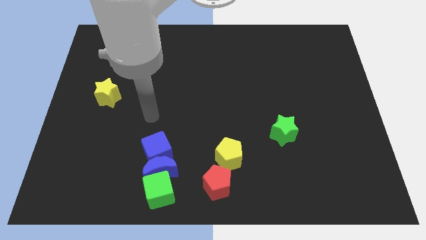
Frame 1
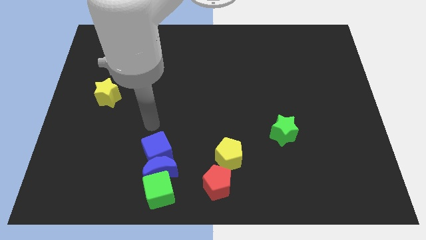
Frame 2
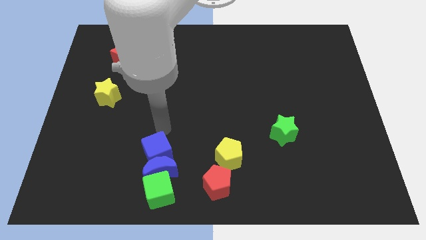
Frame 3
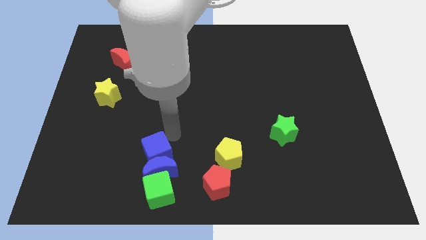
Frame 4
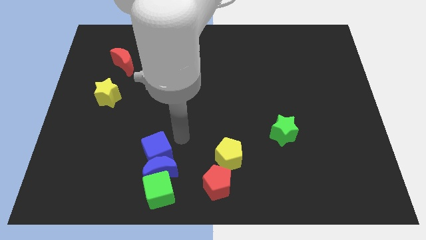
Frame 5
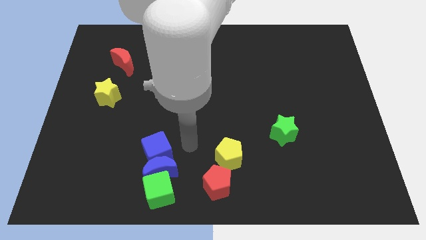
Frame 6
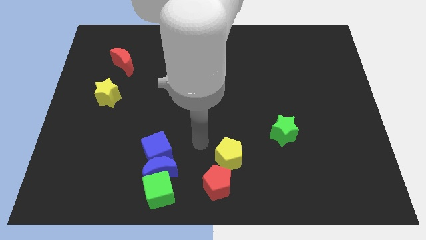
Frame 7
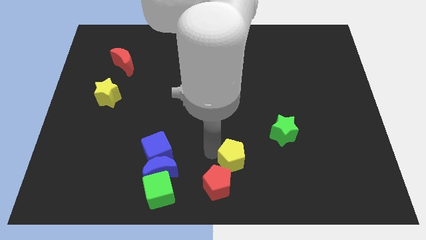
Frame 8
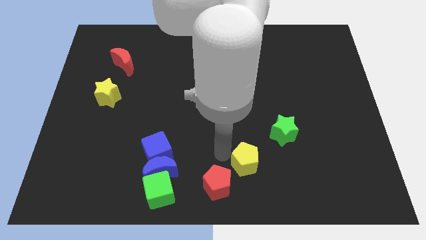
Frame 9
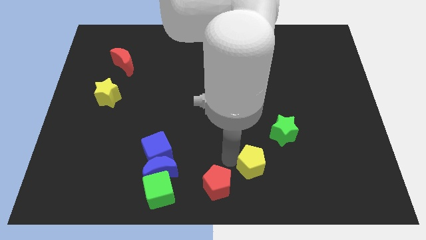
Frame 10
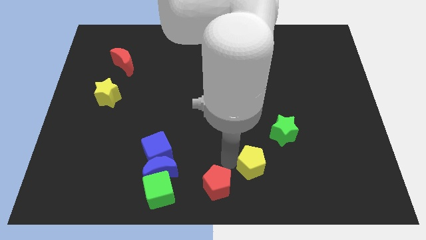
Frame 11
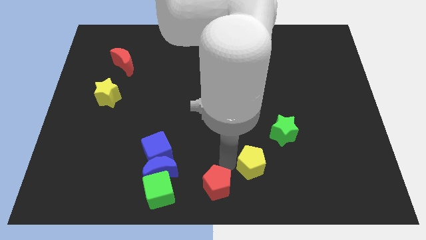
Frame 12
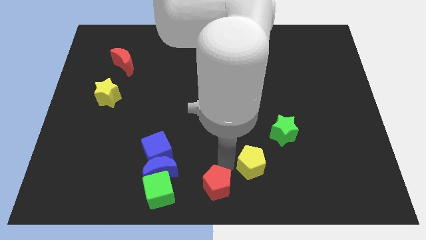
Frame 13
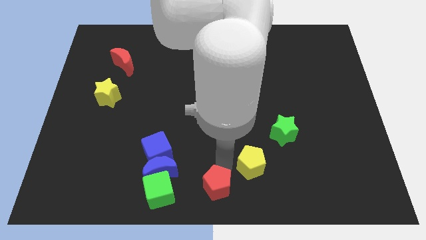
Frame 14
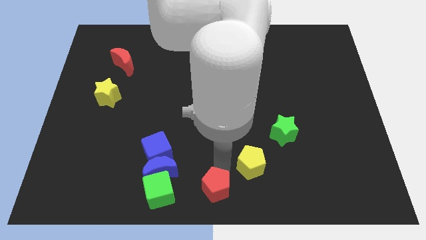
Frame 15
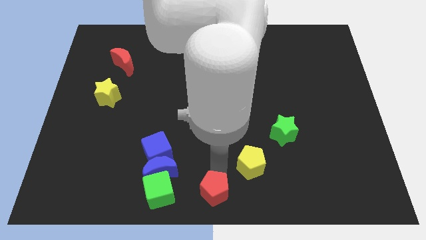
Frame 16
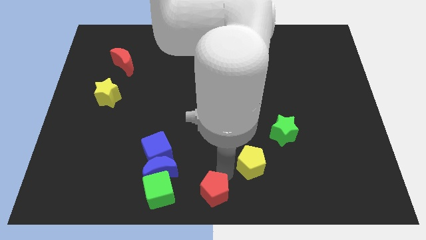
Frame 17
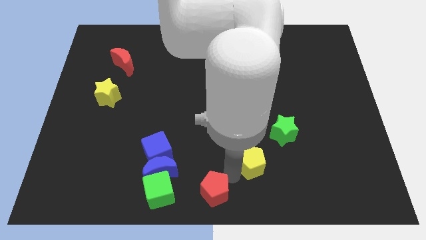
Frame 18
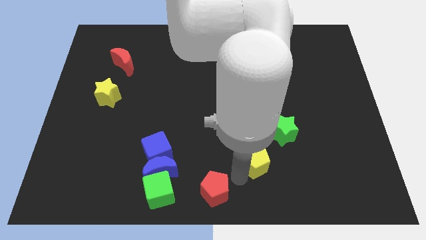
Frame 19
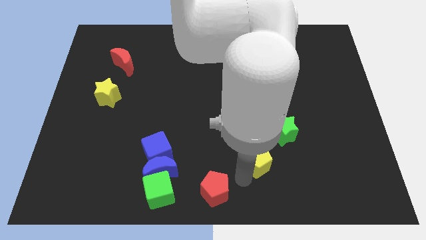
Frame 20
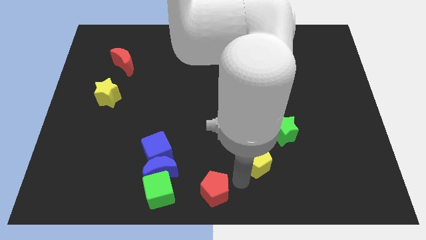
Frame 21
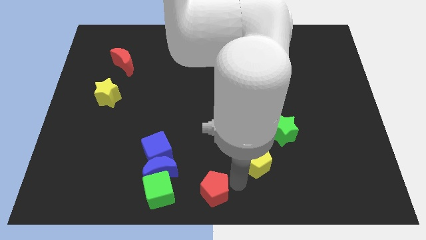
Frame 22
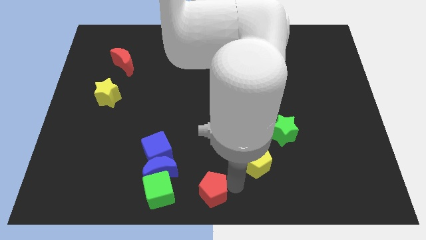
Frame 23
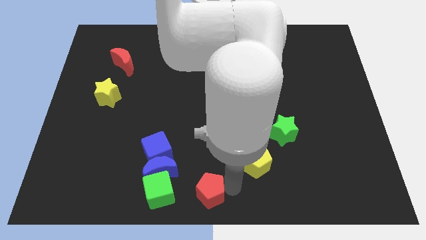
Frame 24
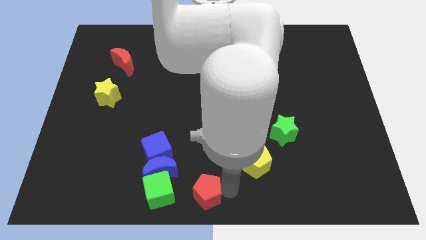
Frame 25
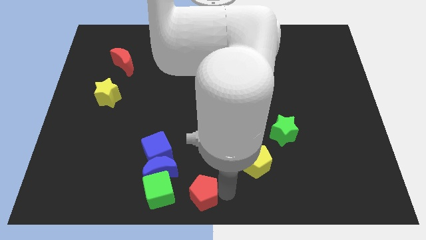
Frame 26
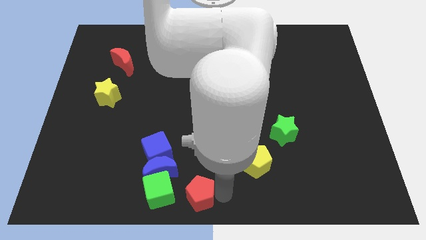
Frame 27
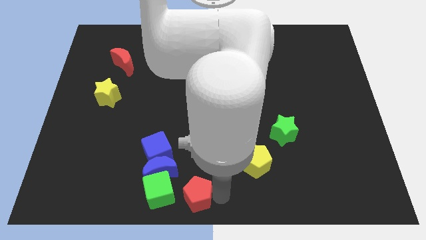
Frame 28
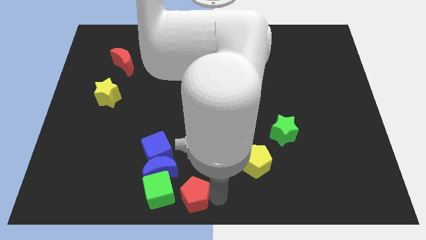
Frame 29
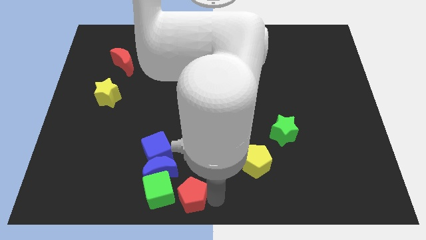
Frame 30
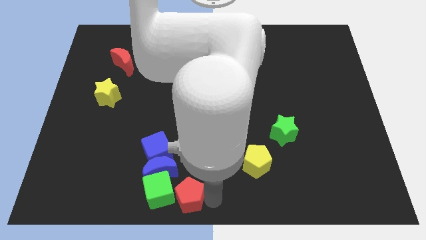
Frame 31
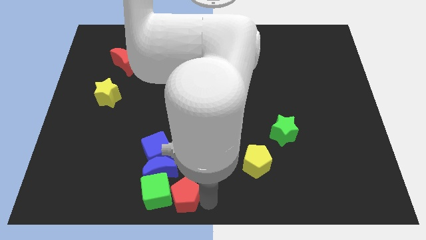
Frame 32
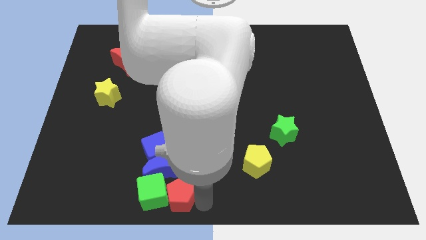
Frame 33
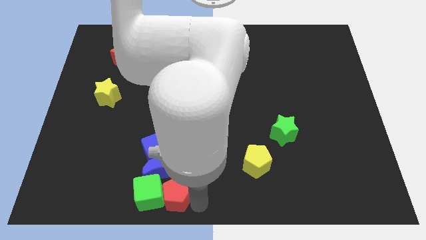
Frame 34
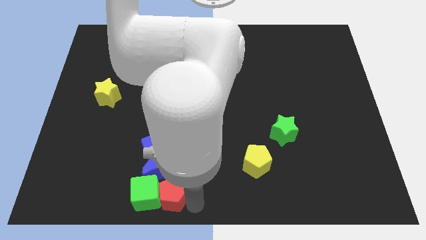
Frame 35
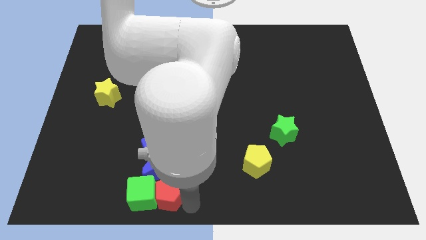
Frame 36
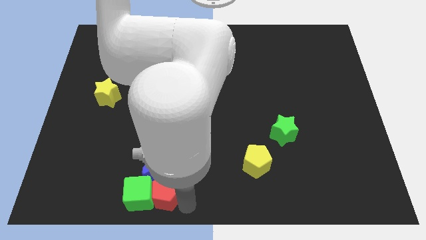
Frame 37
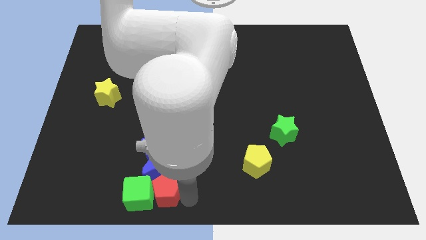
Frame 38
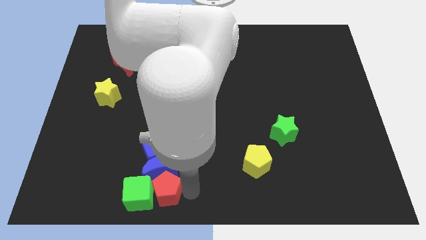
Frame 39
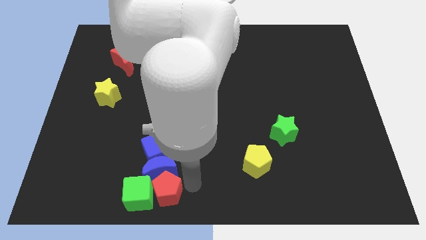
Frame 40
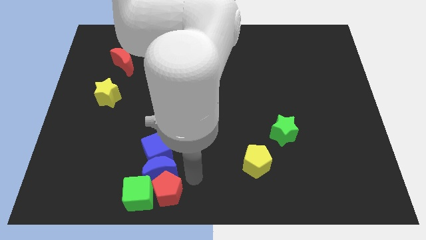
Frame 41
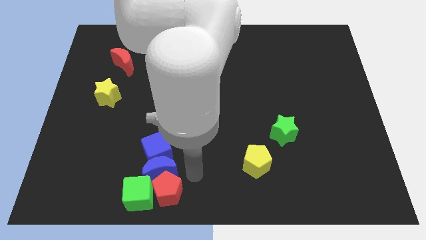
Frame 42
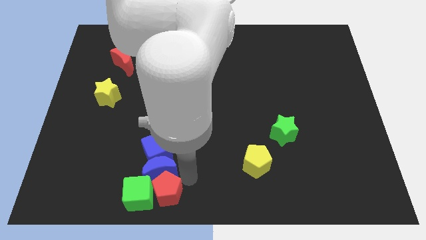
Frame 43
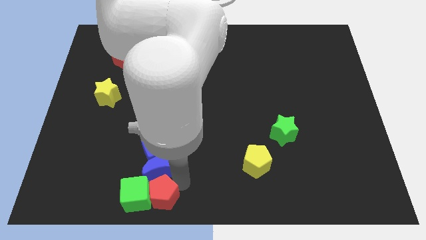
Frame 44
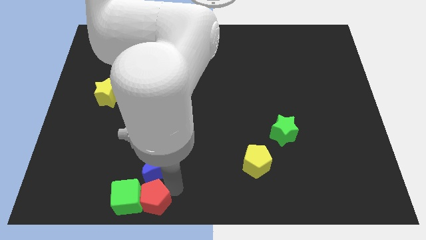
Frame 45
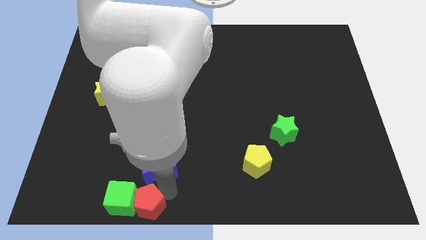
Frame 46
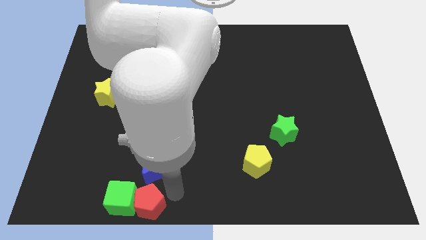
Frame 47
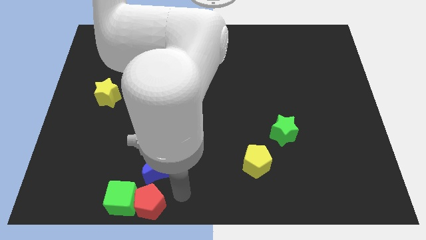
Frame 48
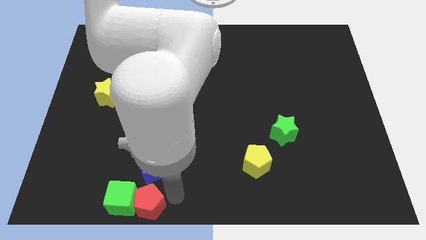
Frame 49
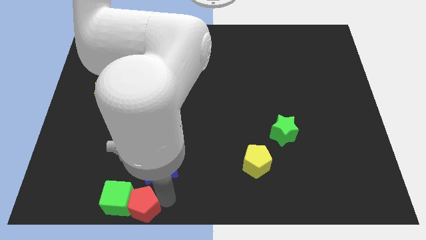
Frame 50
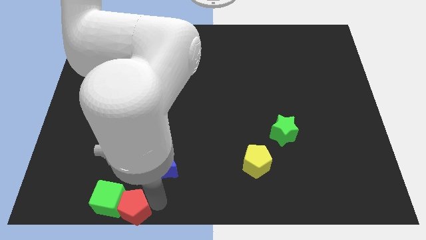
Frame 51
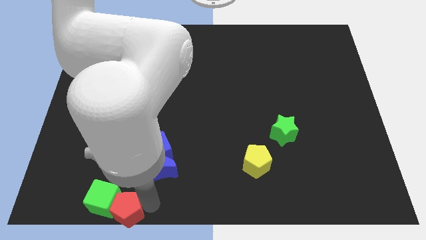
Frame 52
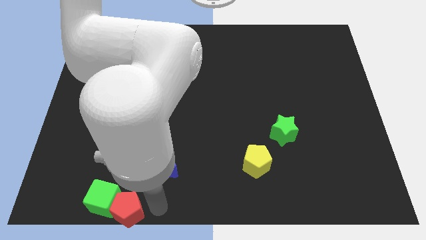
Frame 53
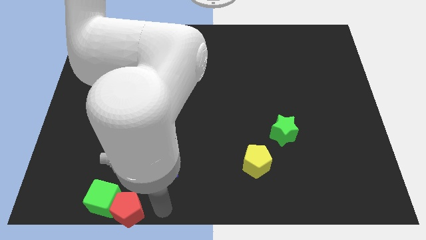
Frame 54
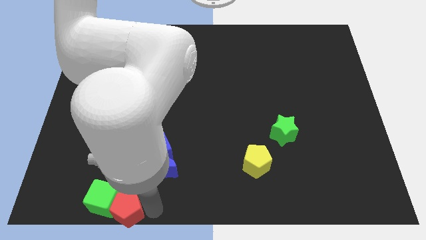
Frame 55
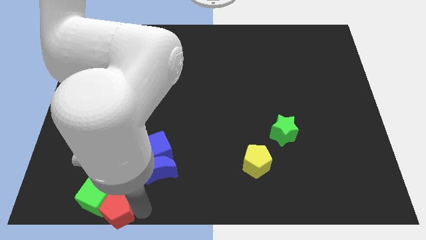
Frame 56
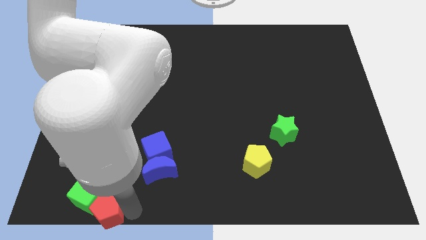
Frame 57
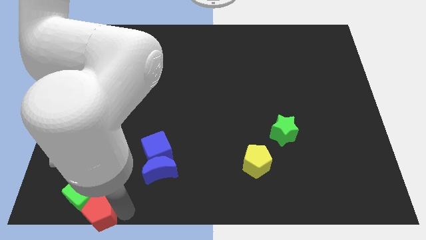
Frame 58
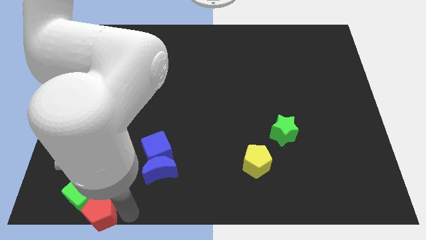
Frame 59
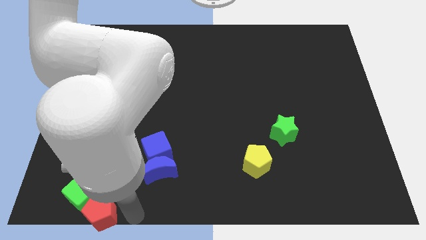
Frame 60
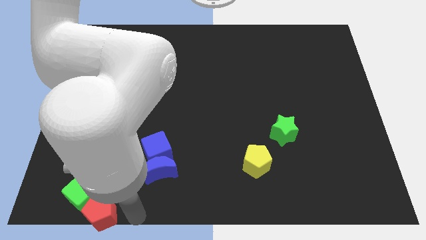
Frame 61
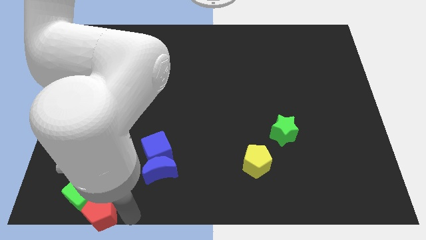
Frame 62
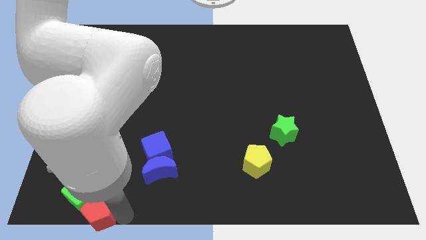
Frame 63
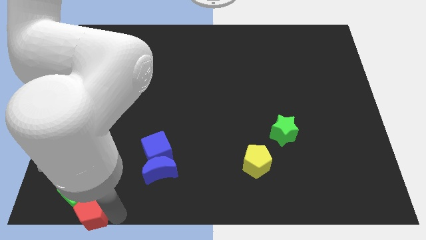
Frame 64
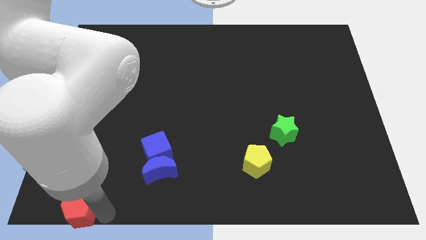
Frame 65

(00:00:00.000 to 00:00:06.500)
slide the red pentagon to the lower left corner
